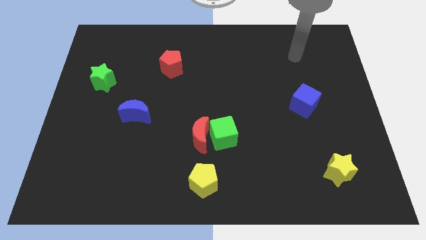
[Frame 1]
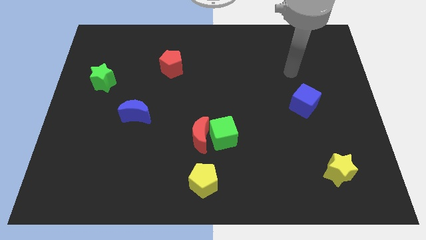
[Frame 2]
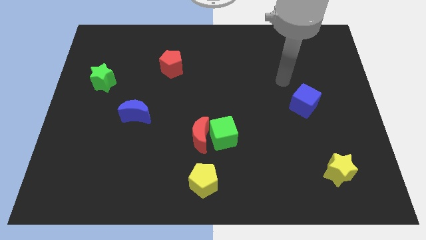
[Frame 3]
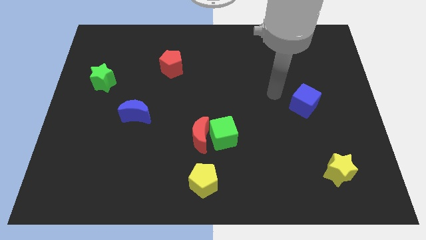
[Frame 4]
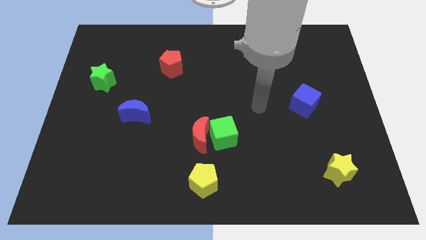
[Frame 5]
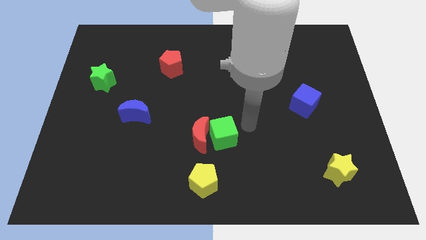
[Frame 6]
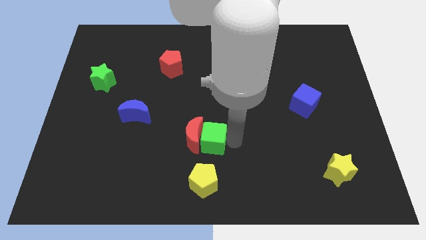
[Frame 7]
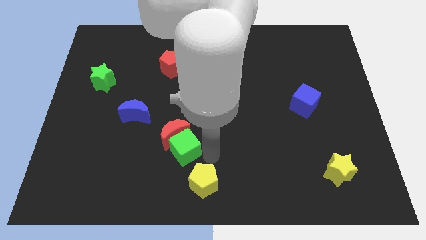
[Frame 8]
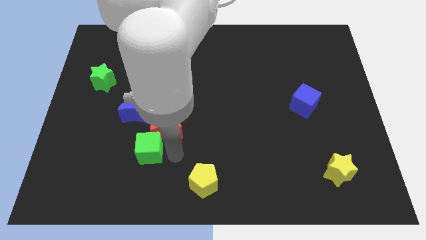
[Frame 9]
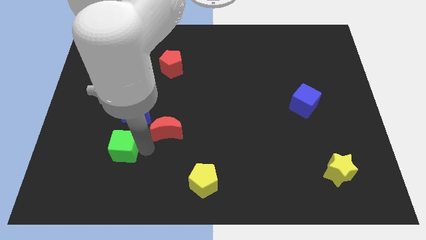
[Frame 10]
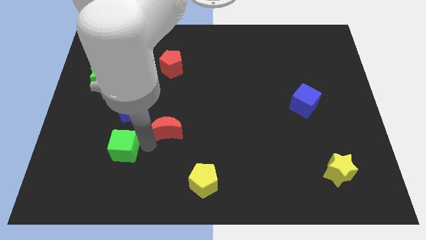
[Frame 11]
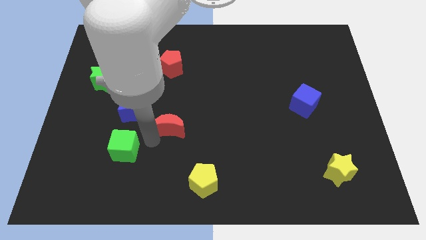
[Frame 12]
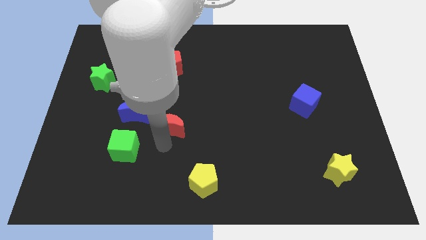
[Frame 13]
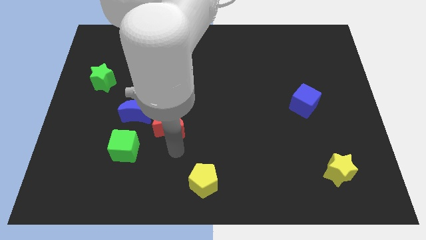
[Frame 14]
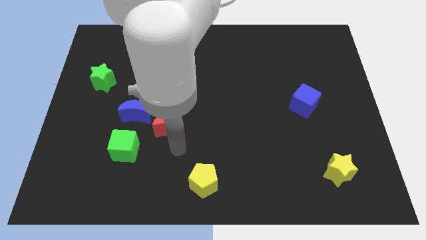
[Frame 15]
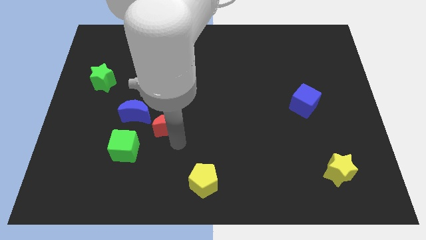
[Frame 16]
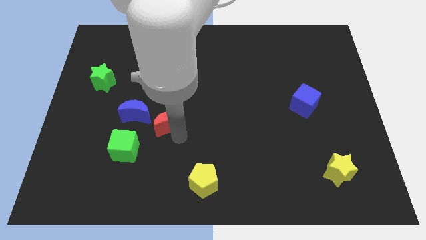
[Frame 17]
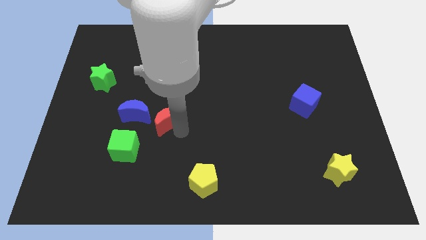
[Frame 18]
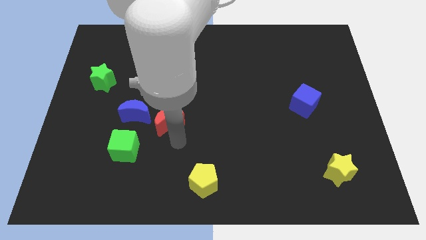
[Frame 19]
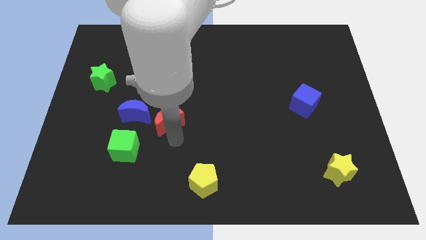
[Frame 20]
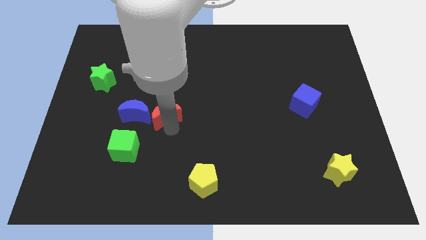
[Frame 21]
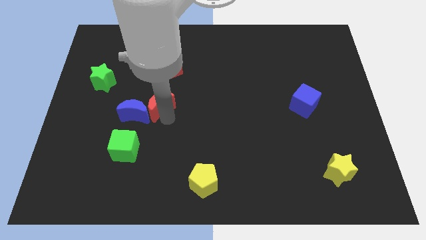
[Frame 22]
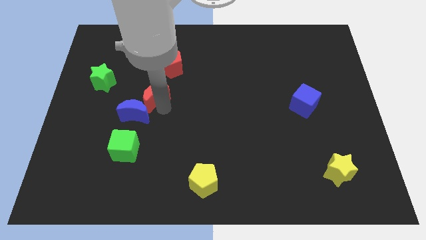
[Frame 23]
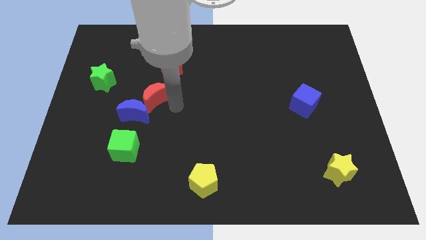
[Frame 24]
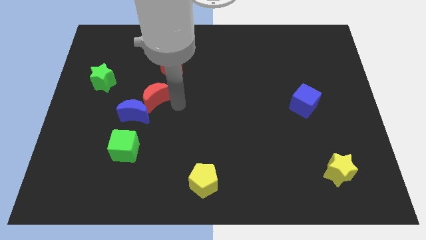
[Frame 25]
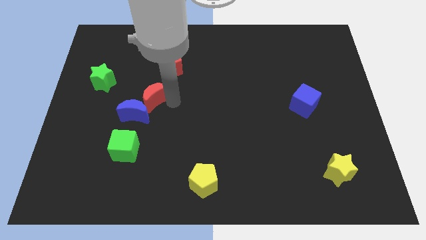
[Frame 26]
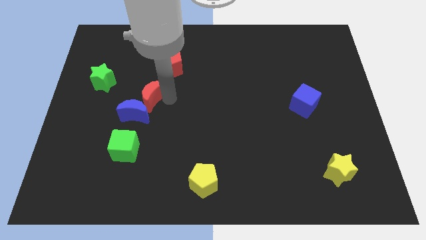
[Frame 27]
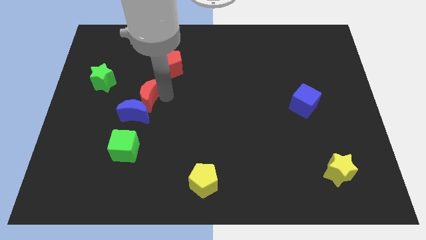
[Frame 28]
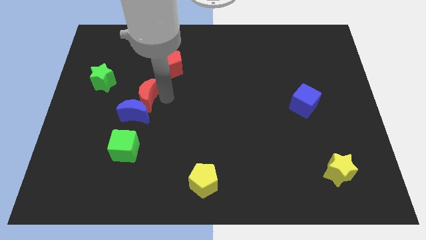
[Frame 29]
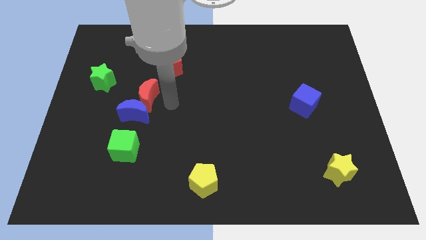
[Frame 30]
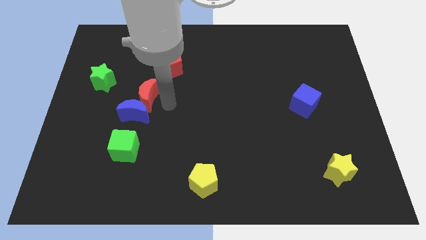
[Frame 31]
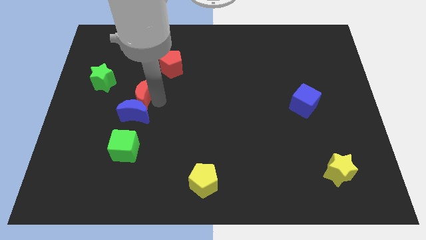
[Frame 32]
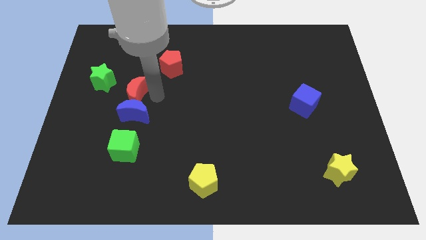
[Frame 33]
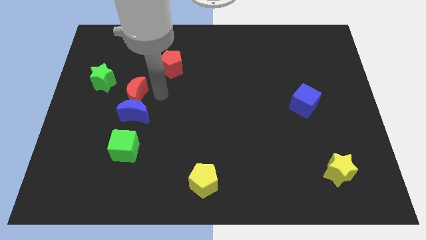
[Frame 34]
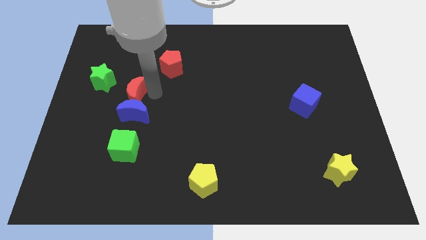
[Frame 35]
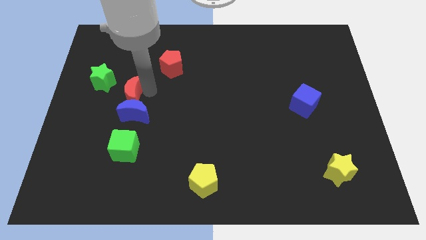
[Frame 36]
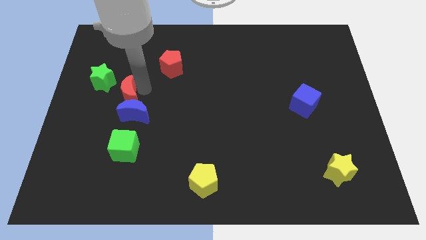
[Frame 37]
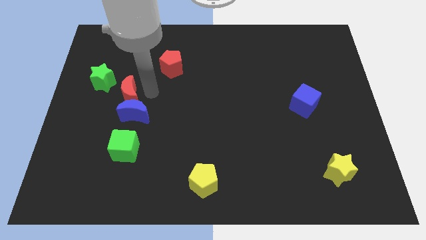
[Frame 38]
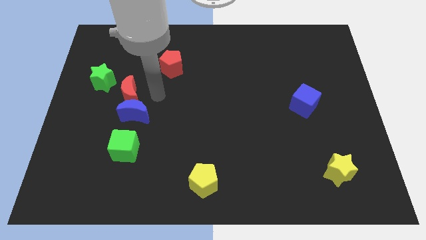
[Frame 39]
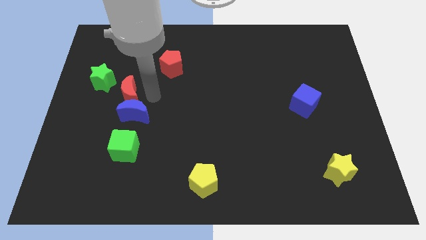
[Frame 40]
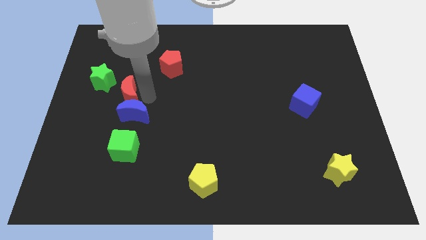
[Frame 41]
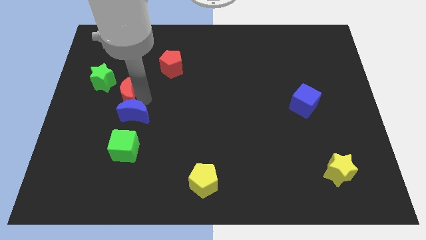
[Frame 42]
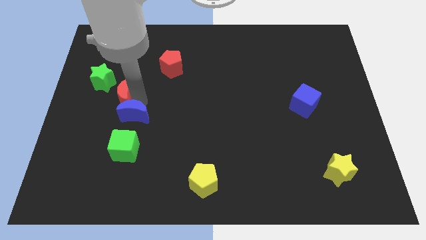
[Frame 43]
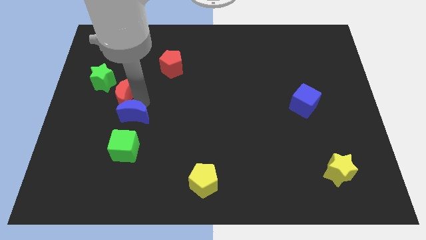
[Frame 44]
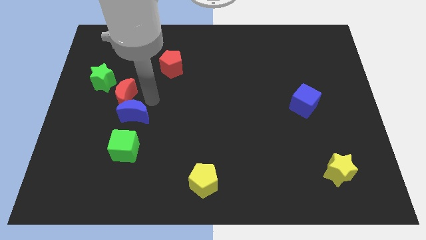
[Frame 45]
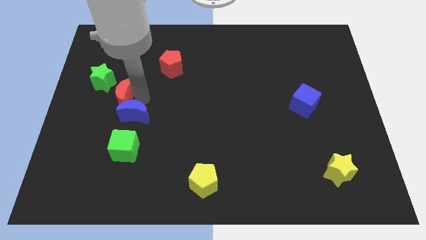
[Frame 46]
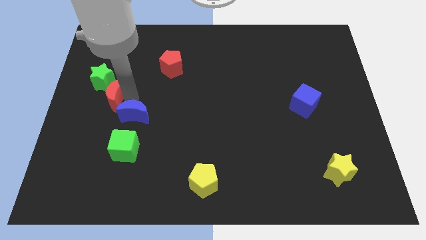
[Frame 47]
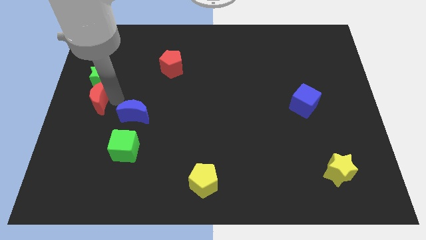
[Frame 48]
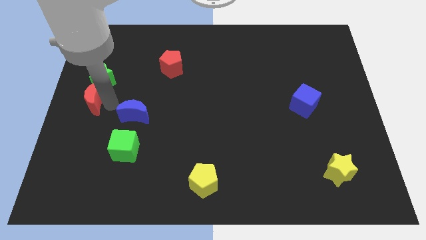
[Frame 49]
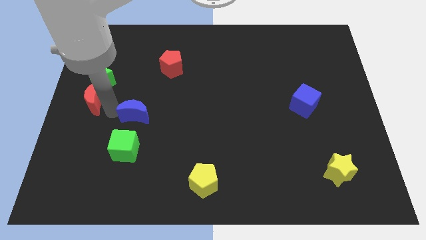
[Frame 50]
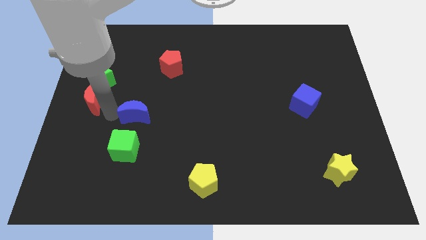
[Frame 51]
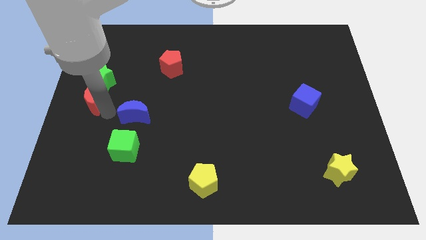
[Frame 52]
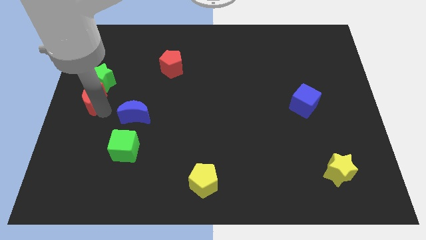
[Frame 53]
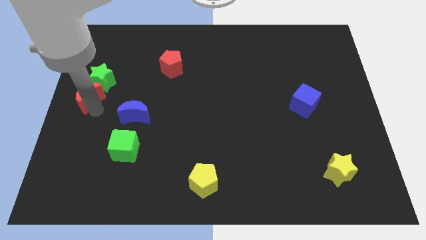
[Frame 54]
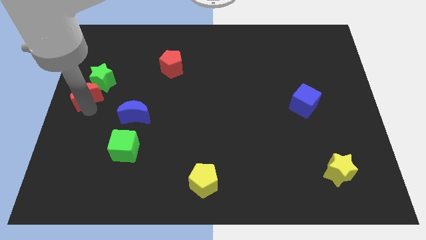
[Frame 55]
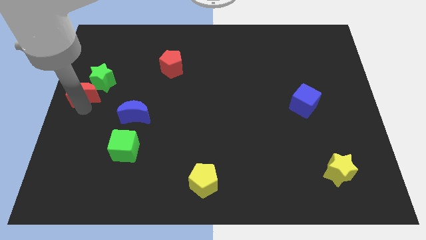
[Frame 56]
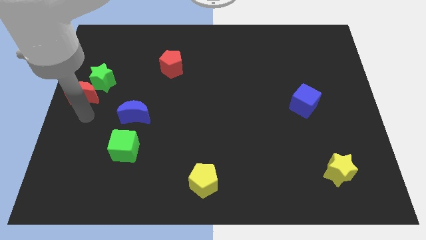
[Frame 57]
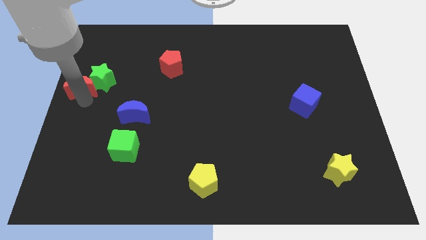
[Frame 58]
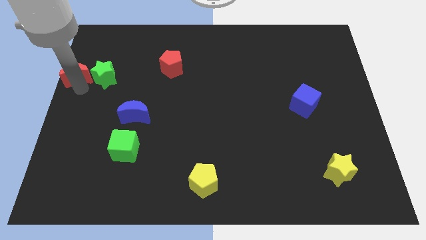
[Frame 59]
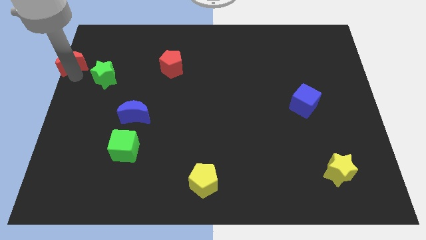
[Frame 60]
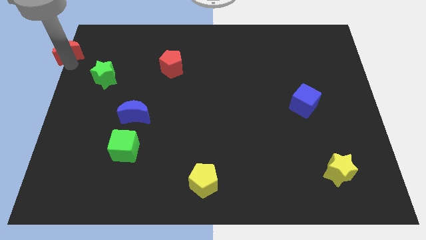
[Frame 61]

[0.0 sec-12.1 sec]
put the red moon to the top left corner

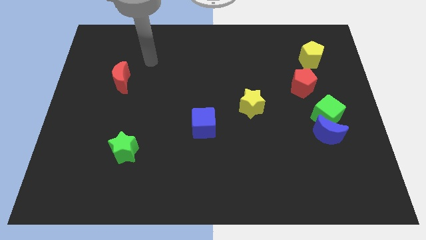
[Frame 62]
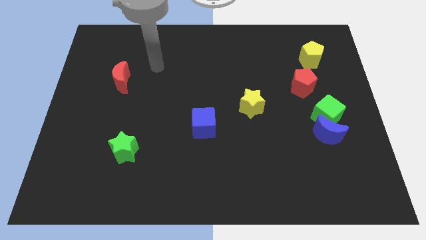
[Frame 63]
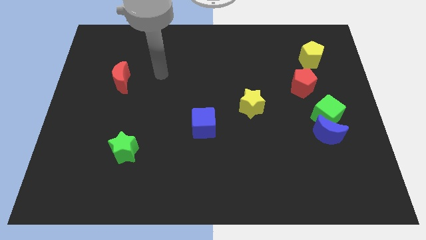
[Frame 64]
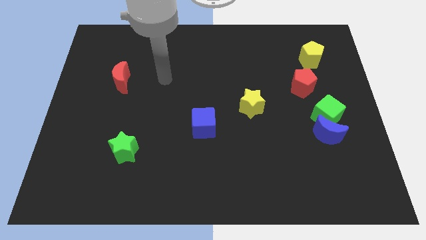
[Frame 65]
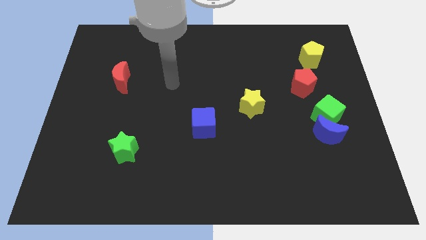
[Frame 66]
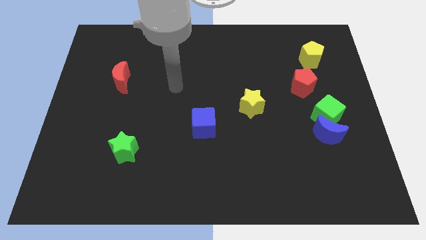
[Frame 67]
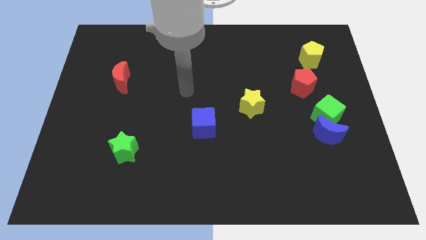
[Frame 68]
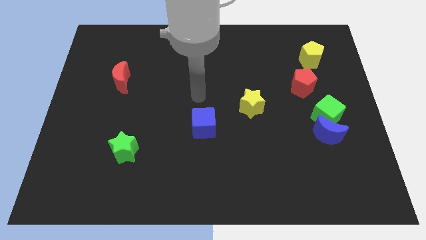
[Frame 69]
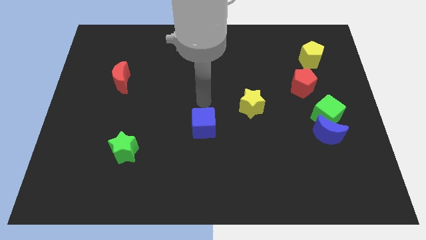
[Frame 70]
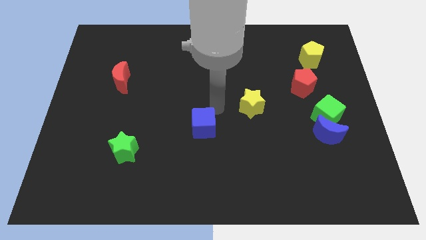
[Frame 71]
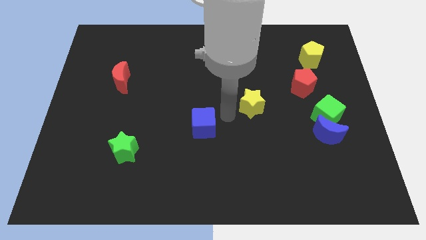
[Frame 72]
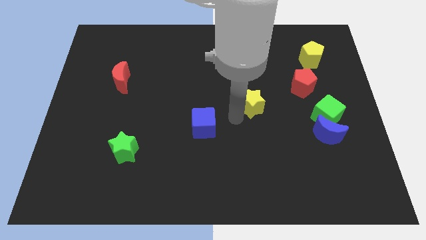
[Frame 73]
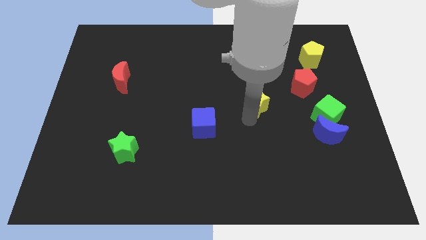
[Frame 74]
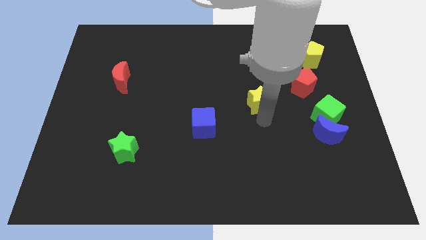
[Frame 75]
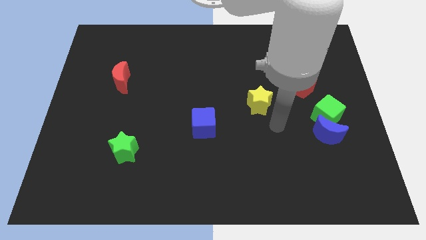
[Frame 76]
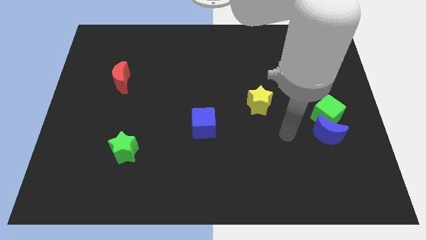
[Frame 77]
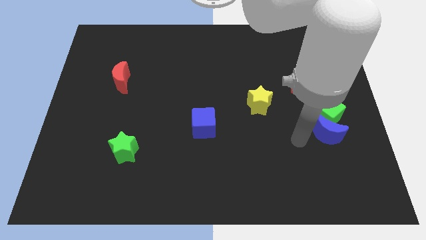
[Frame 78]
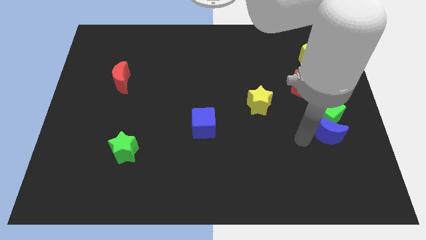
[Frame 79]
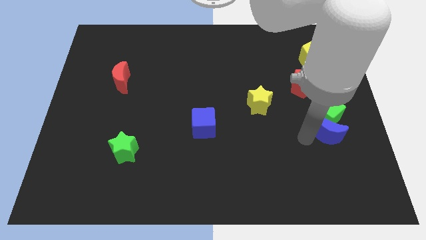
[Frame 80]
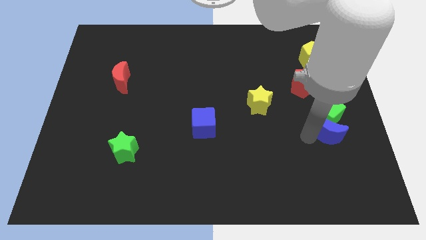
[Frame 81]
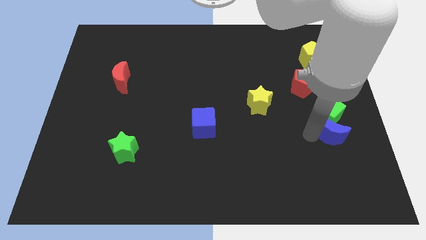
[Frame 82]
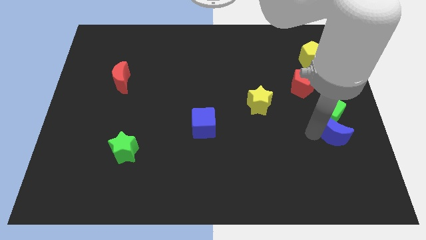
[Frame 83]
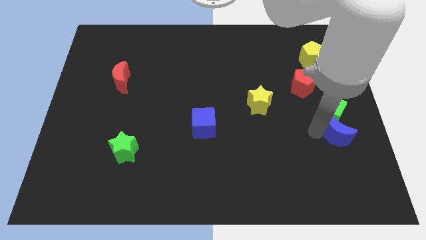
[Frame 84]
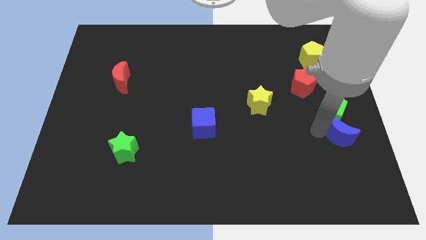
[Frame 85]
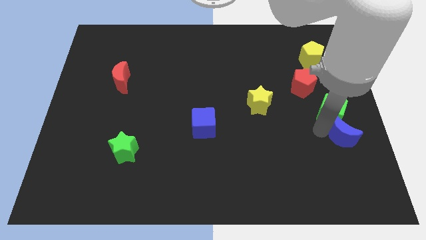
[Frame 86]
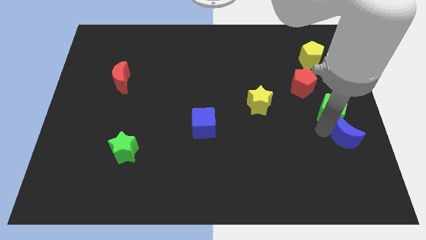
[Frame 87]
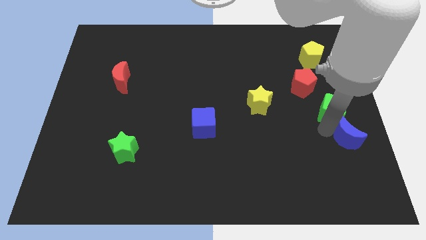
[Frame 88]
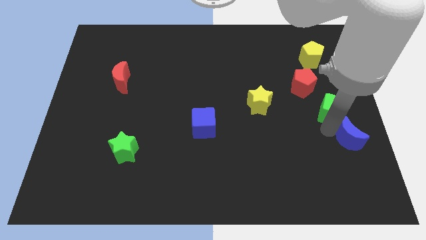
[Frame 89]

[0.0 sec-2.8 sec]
put the blue moon to the right side of the board
